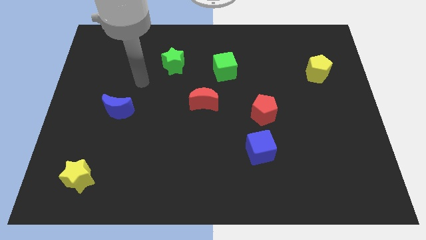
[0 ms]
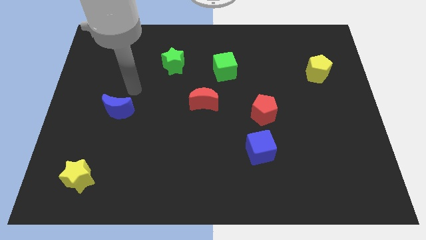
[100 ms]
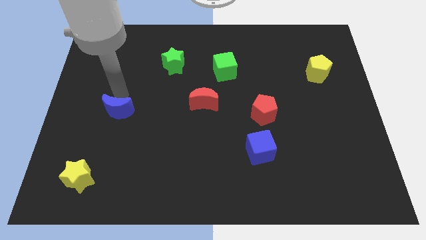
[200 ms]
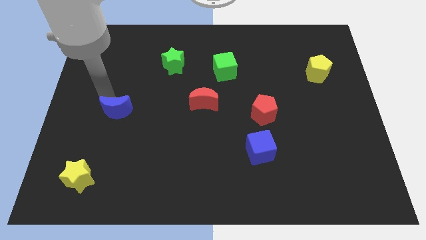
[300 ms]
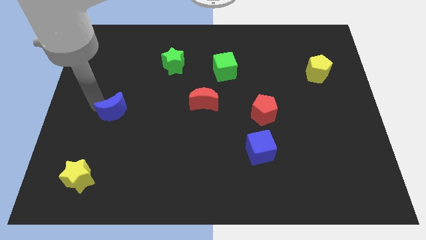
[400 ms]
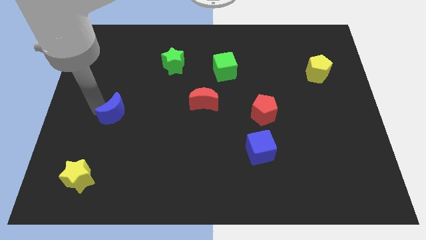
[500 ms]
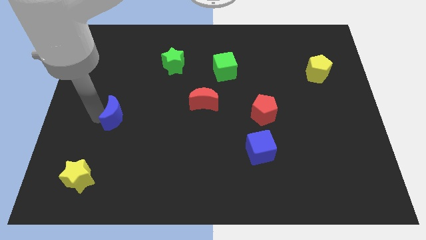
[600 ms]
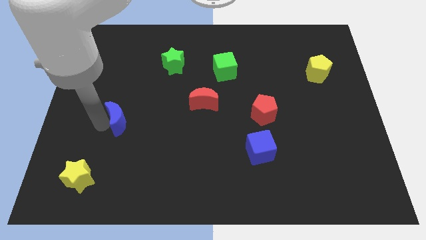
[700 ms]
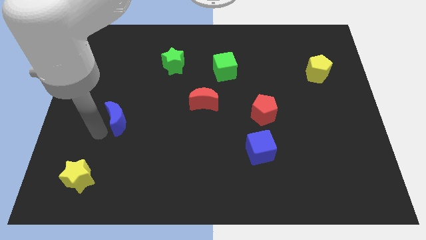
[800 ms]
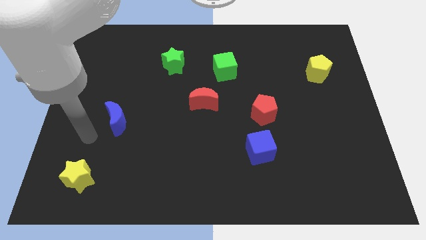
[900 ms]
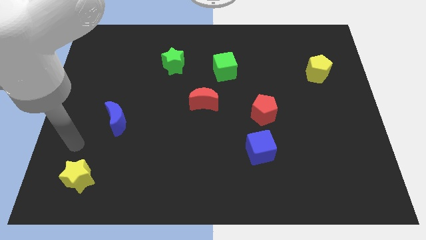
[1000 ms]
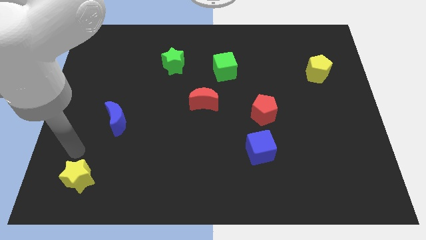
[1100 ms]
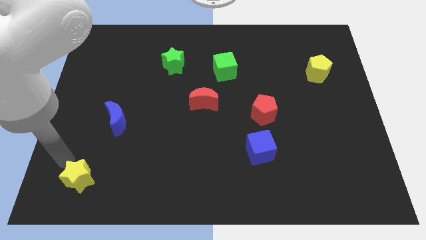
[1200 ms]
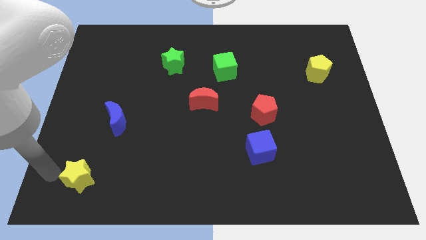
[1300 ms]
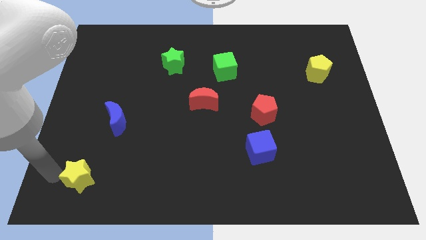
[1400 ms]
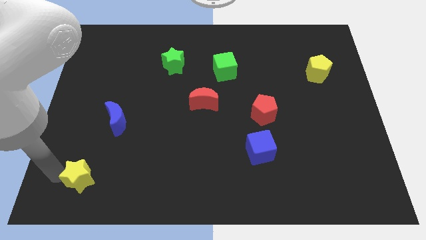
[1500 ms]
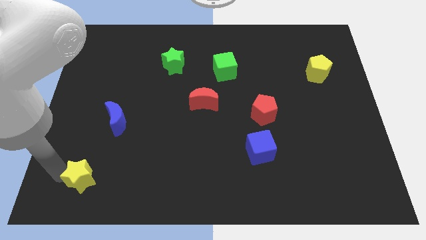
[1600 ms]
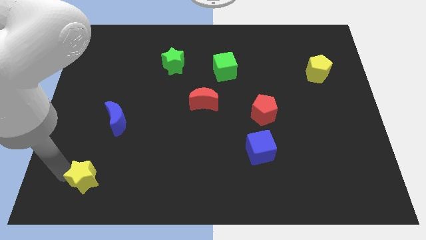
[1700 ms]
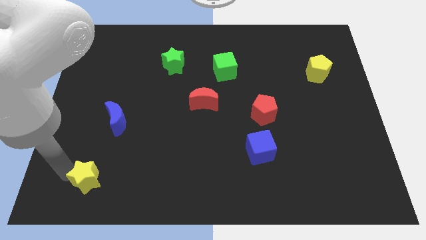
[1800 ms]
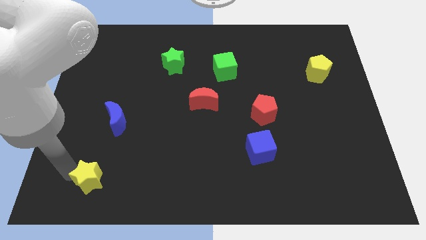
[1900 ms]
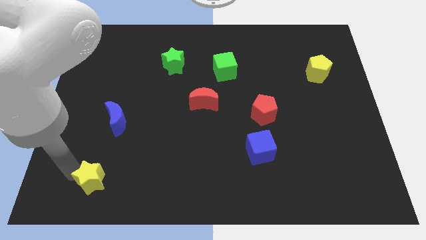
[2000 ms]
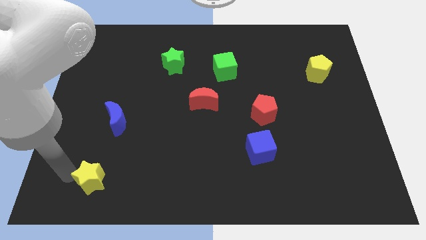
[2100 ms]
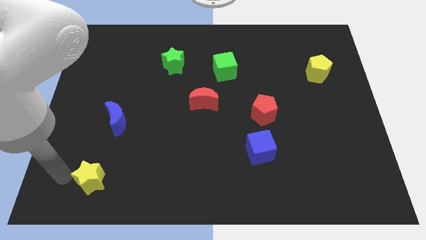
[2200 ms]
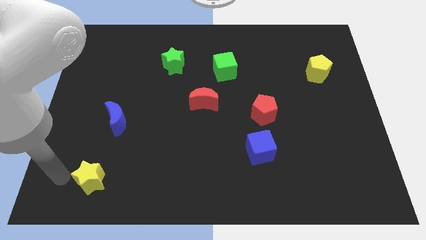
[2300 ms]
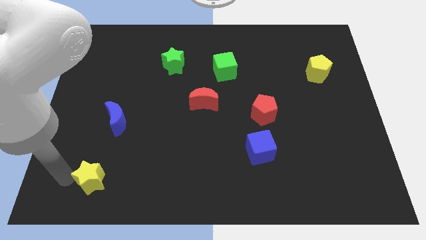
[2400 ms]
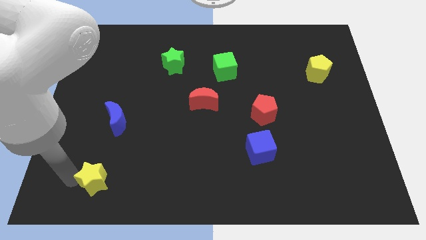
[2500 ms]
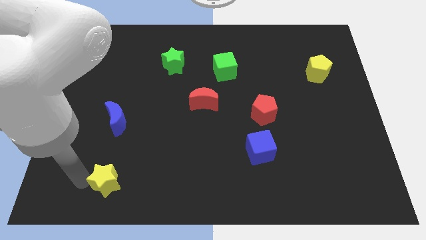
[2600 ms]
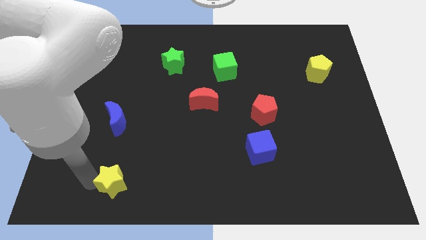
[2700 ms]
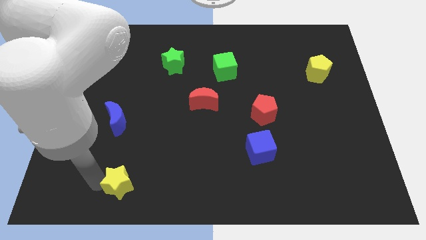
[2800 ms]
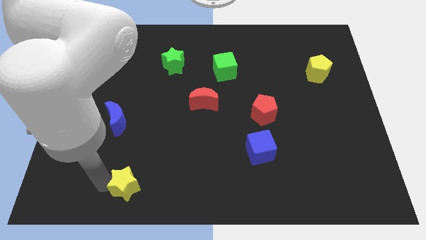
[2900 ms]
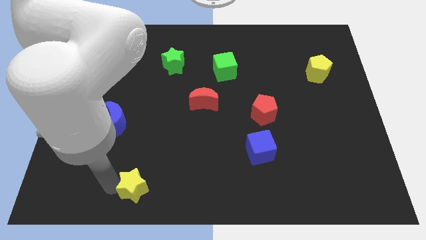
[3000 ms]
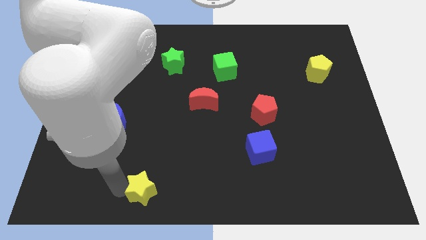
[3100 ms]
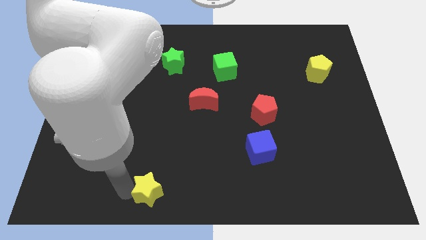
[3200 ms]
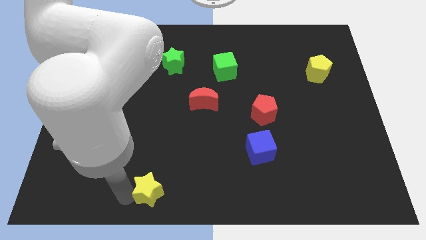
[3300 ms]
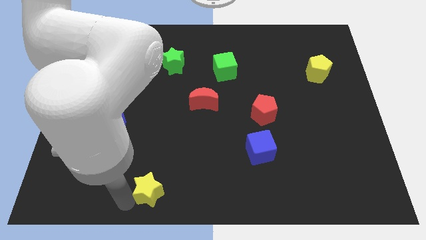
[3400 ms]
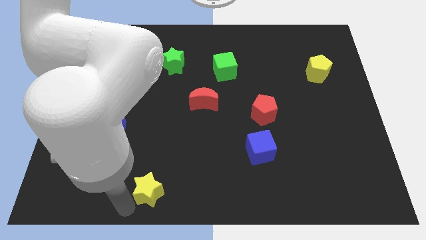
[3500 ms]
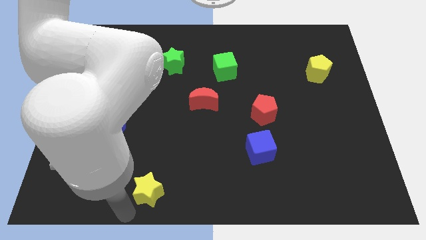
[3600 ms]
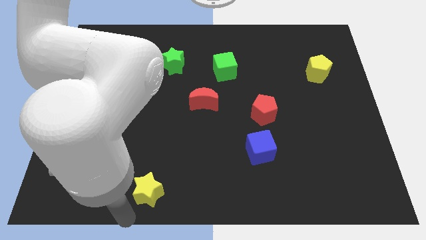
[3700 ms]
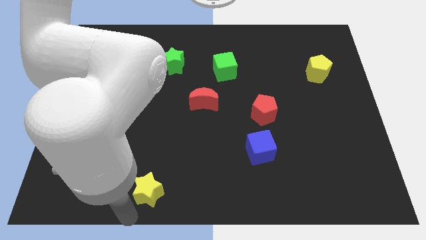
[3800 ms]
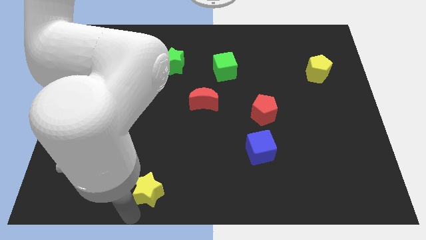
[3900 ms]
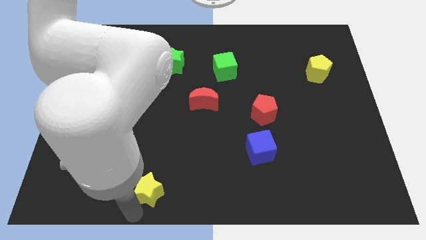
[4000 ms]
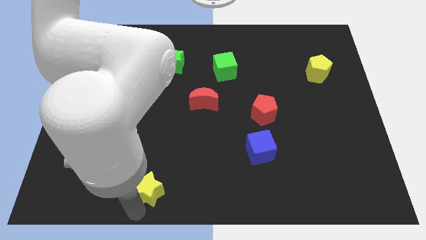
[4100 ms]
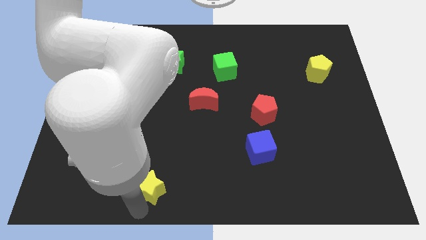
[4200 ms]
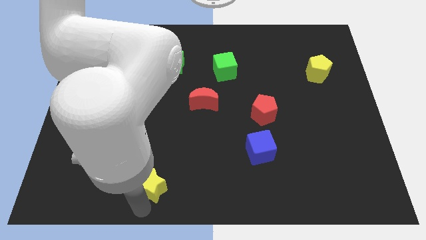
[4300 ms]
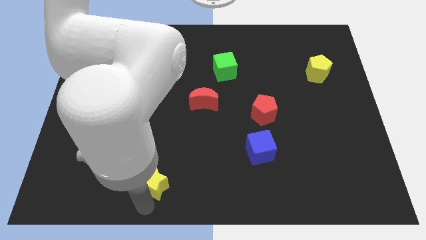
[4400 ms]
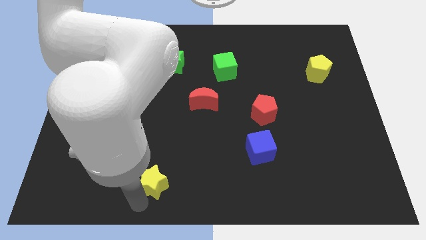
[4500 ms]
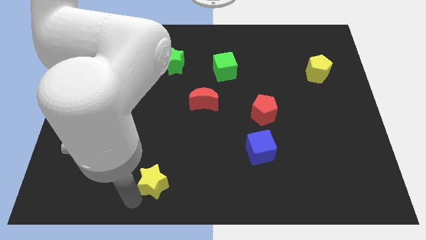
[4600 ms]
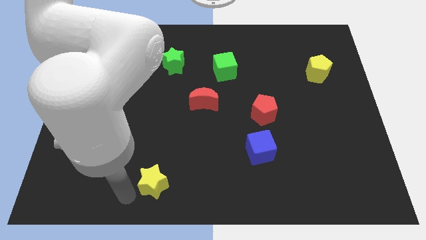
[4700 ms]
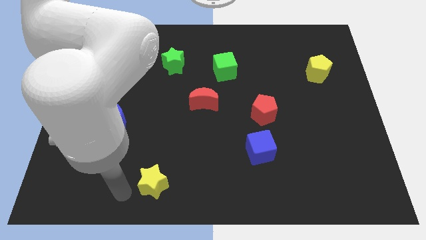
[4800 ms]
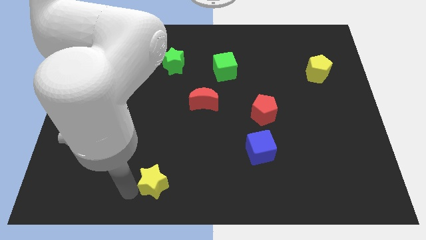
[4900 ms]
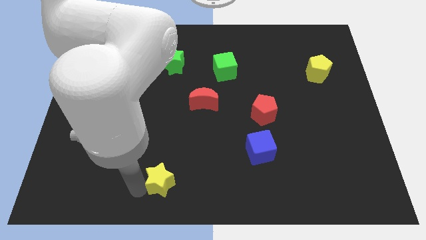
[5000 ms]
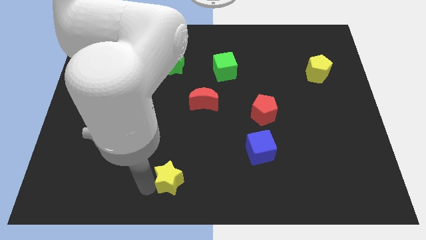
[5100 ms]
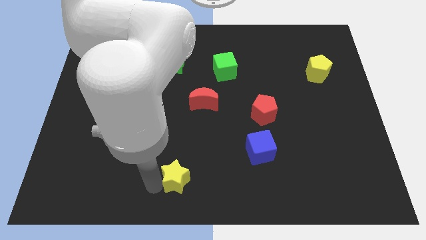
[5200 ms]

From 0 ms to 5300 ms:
push the yellow star to the right

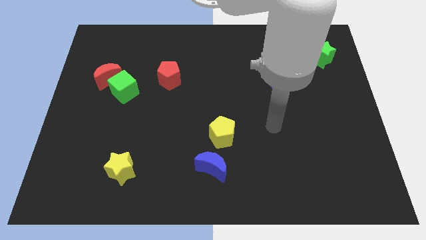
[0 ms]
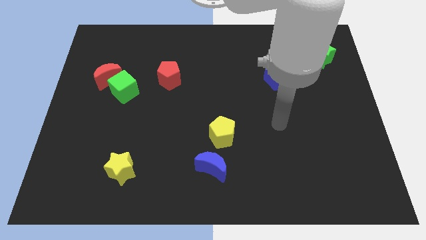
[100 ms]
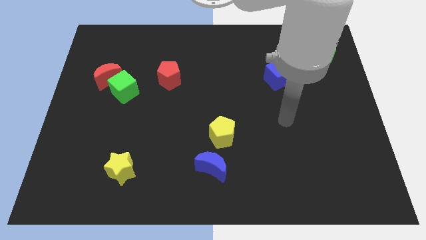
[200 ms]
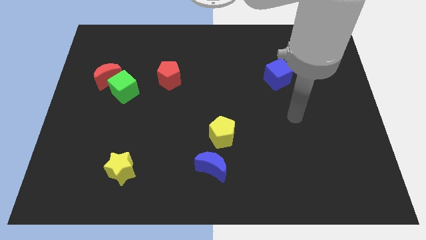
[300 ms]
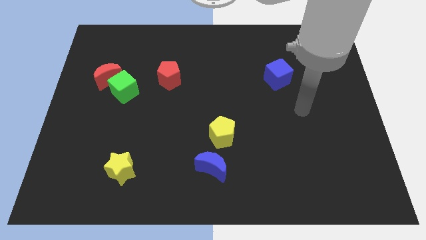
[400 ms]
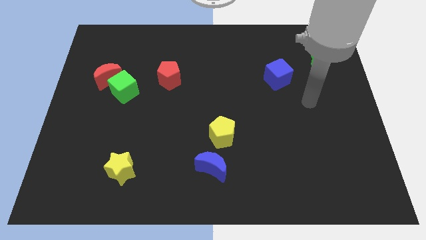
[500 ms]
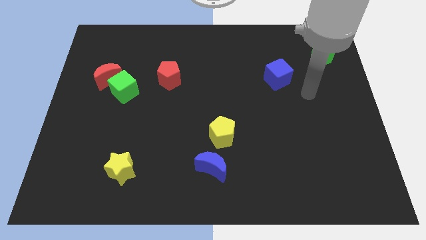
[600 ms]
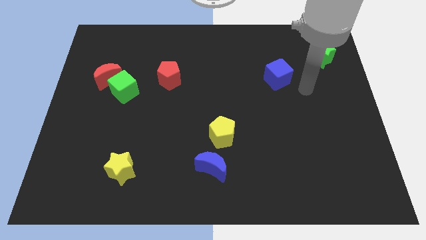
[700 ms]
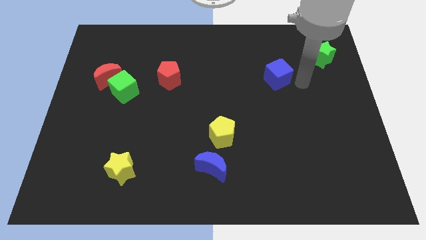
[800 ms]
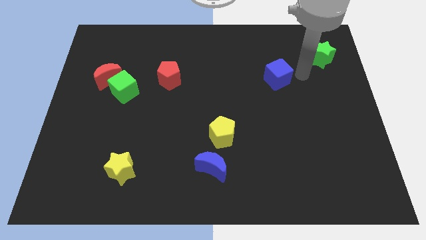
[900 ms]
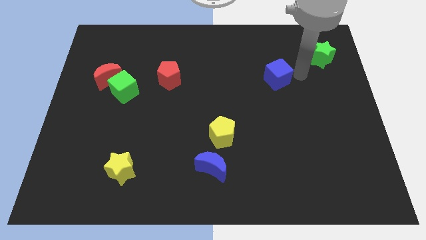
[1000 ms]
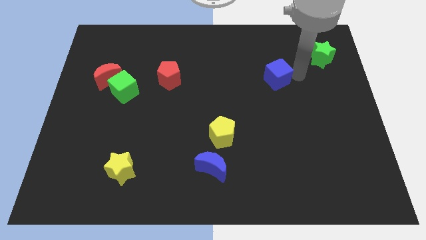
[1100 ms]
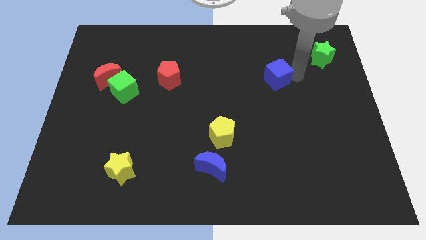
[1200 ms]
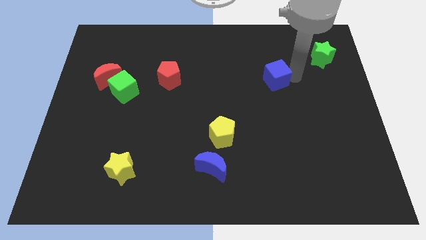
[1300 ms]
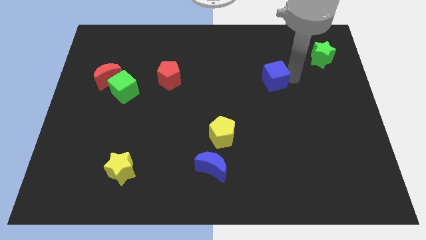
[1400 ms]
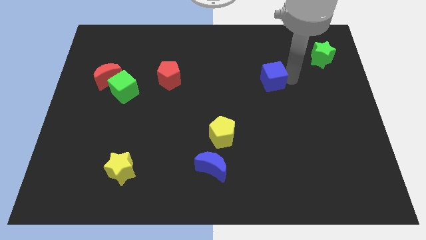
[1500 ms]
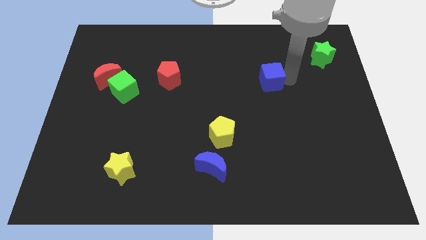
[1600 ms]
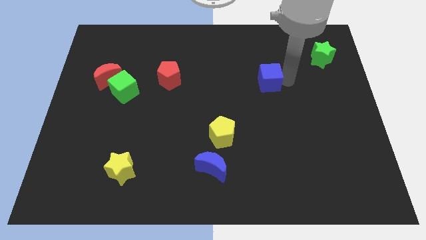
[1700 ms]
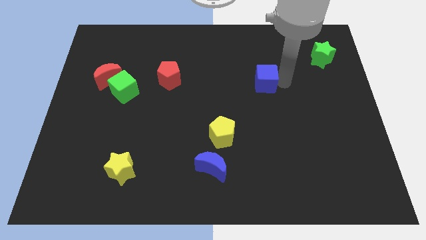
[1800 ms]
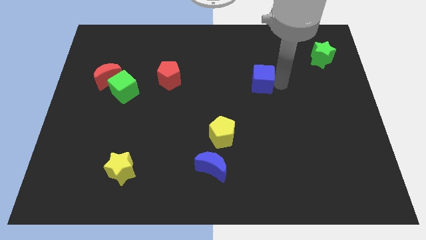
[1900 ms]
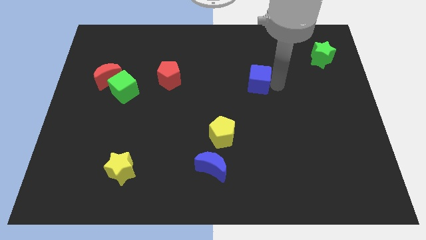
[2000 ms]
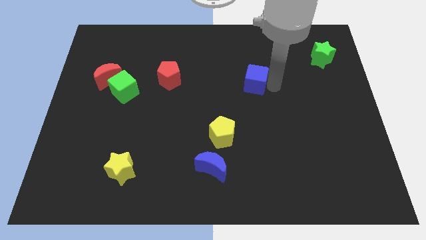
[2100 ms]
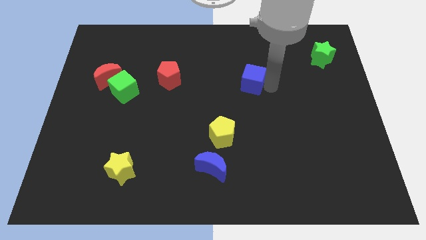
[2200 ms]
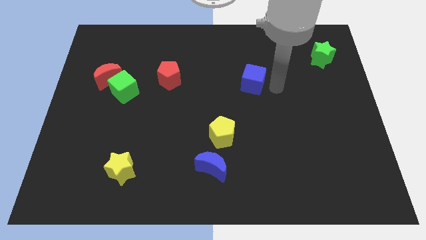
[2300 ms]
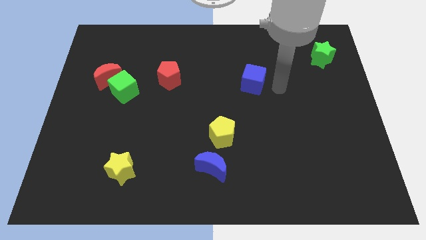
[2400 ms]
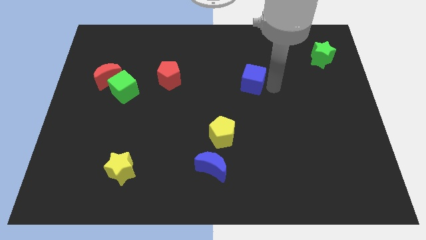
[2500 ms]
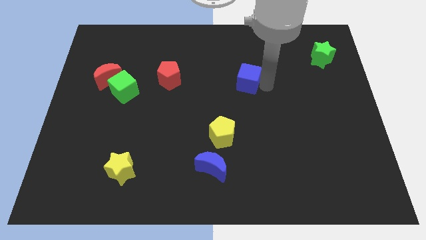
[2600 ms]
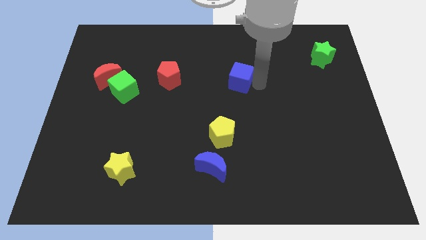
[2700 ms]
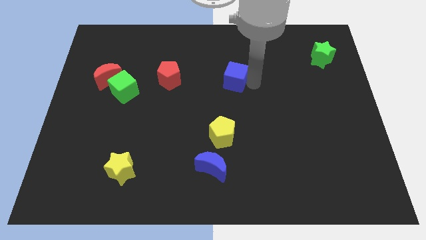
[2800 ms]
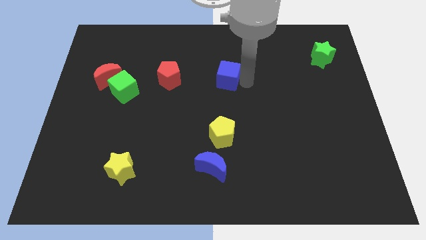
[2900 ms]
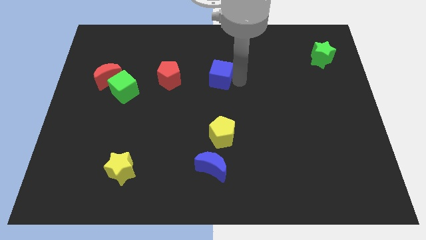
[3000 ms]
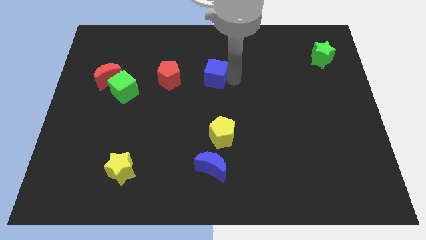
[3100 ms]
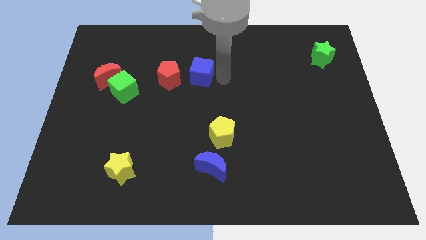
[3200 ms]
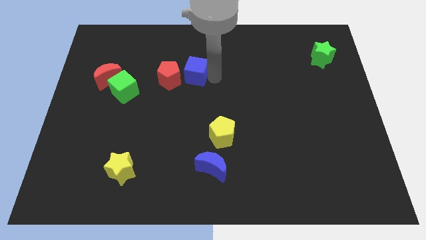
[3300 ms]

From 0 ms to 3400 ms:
push the blue cube to the left
